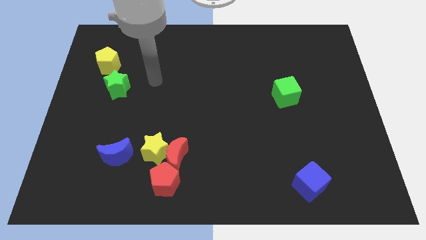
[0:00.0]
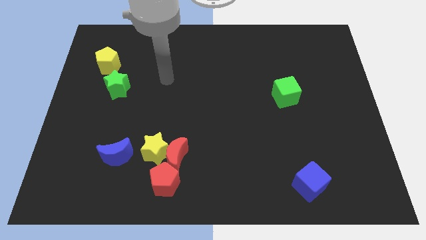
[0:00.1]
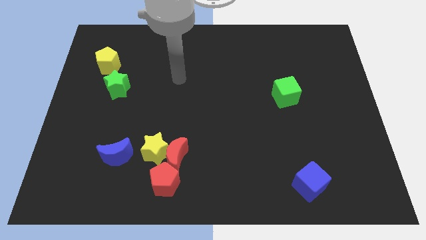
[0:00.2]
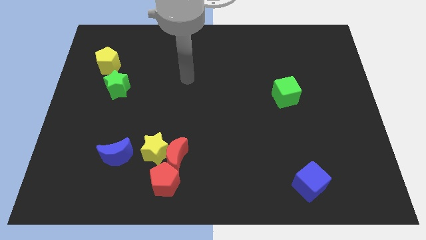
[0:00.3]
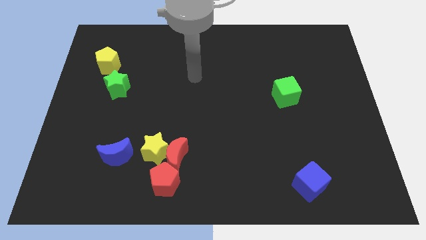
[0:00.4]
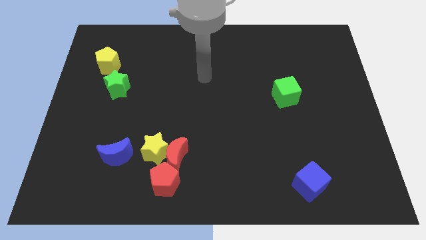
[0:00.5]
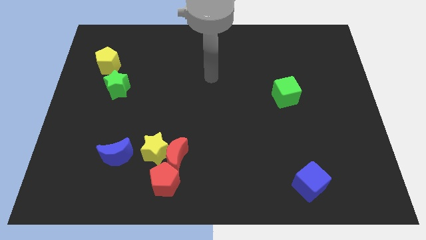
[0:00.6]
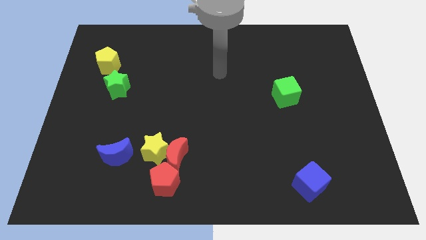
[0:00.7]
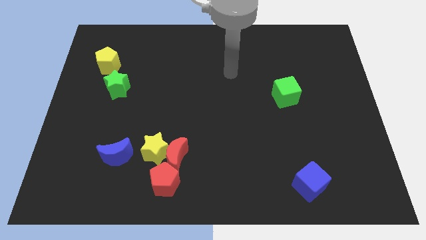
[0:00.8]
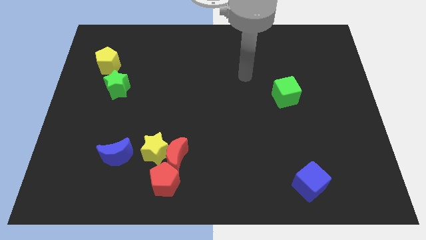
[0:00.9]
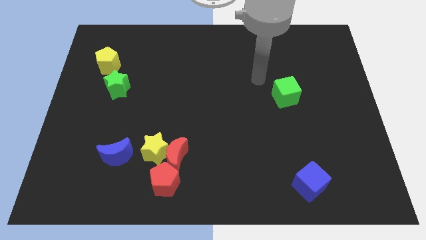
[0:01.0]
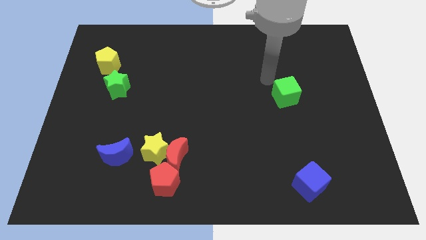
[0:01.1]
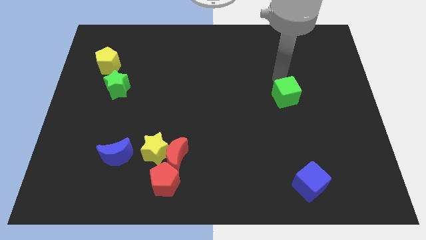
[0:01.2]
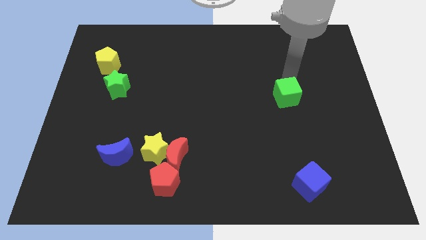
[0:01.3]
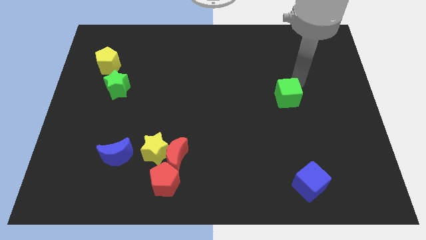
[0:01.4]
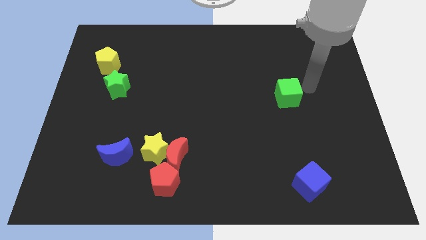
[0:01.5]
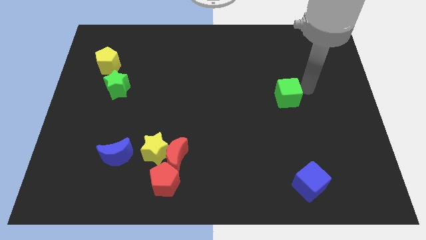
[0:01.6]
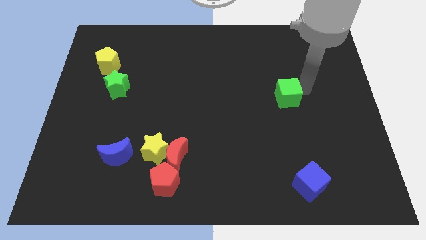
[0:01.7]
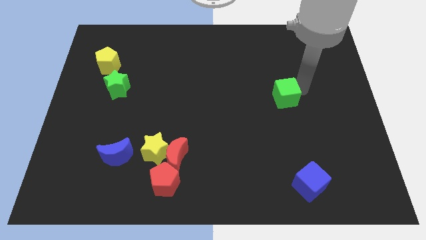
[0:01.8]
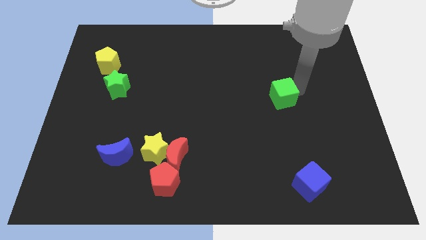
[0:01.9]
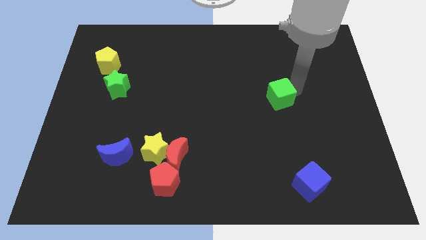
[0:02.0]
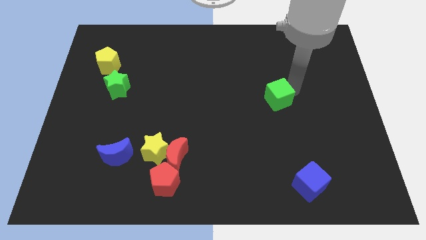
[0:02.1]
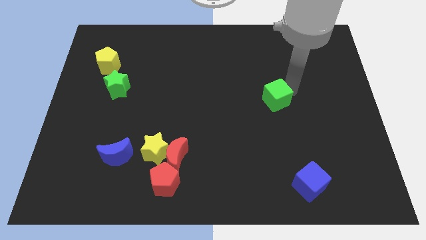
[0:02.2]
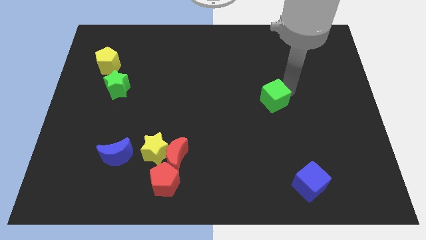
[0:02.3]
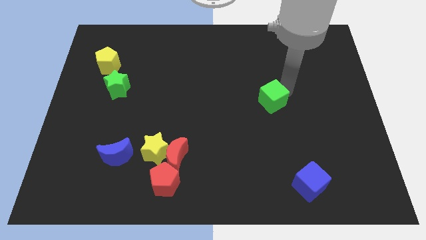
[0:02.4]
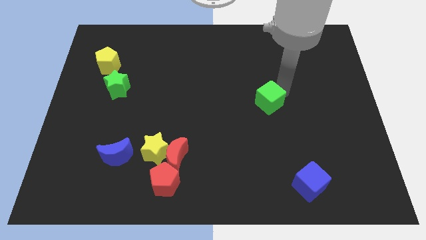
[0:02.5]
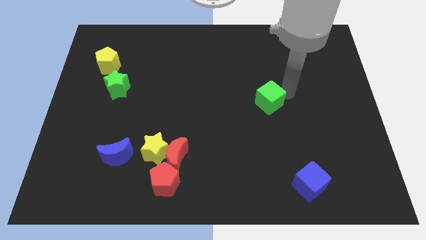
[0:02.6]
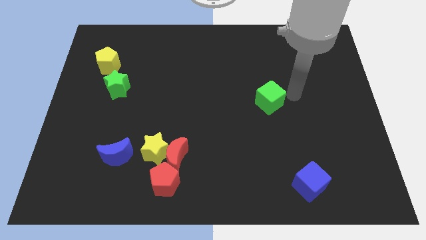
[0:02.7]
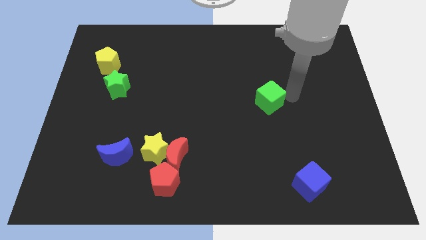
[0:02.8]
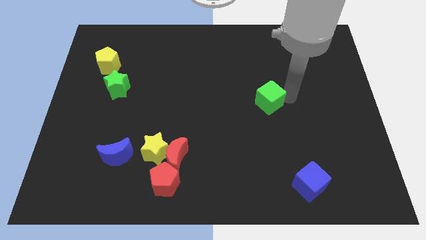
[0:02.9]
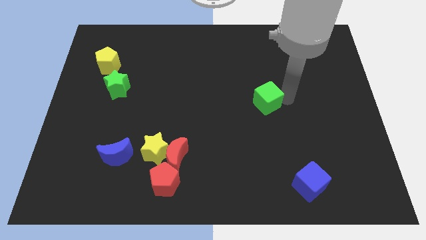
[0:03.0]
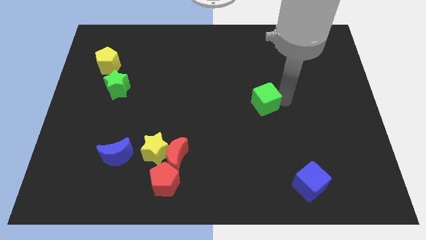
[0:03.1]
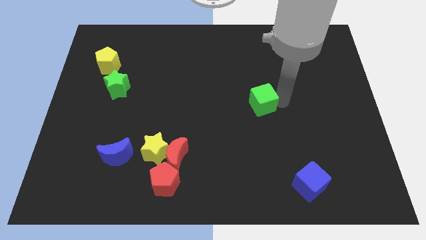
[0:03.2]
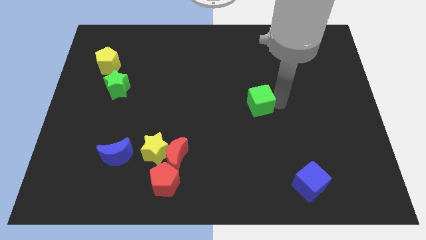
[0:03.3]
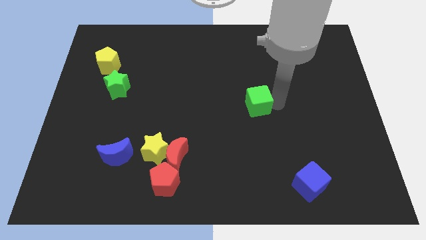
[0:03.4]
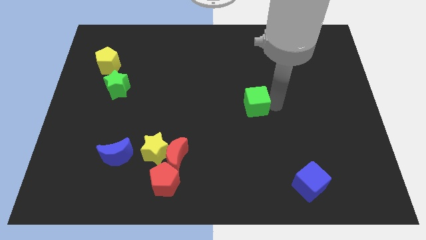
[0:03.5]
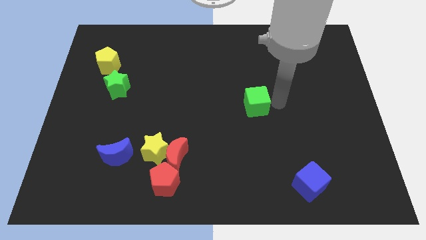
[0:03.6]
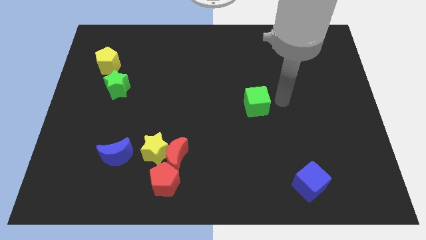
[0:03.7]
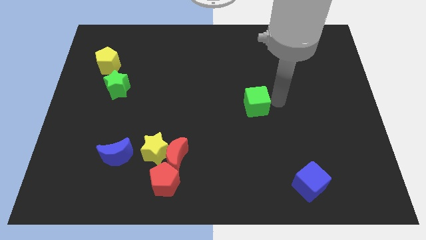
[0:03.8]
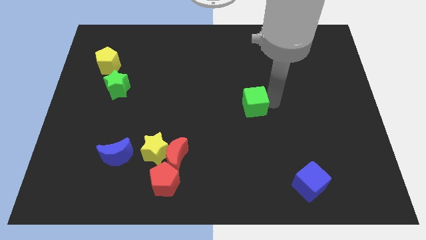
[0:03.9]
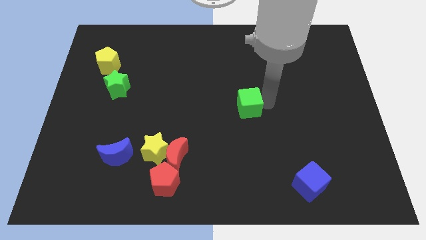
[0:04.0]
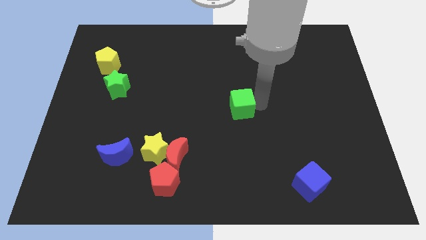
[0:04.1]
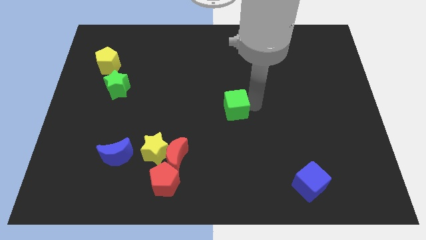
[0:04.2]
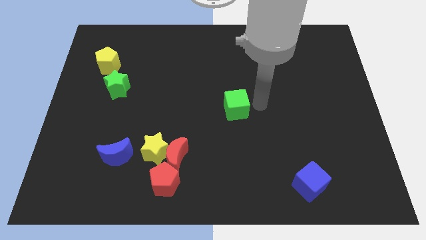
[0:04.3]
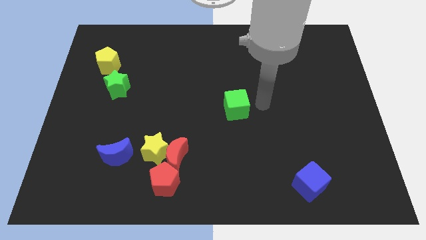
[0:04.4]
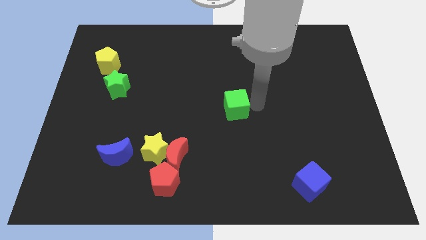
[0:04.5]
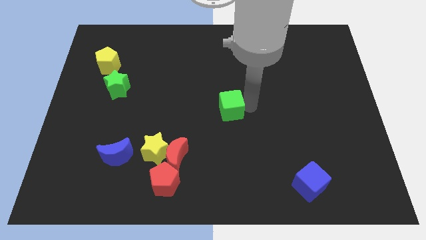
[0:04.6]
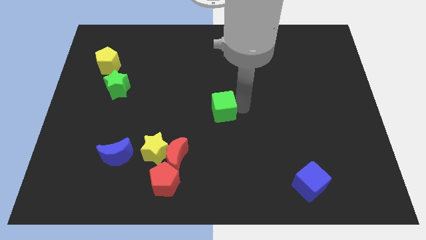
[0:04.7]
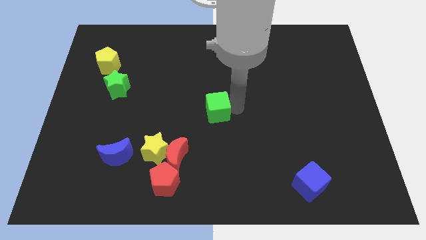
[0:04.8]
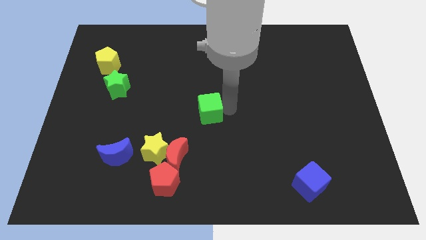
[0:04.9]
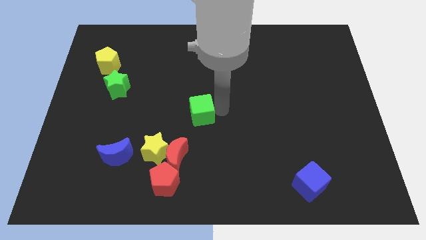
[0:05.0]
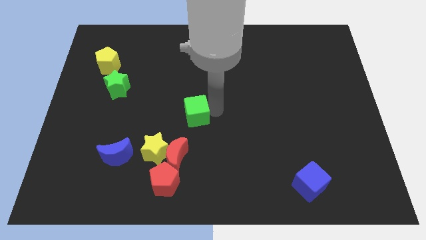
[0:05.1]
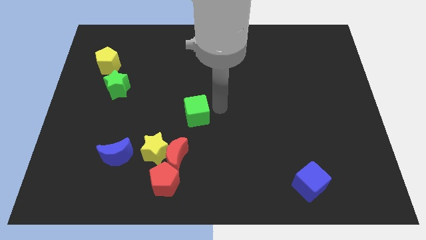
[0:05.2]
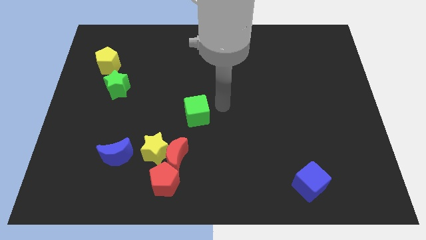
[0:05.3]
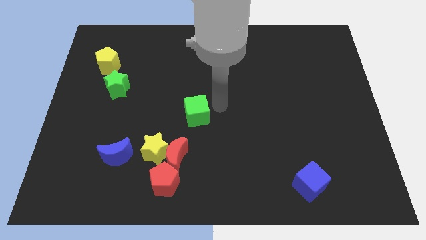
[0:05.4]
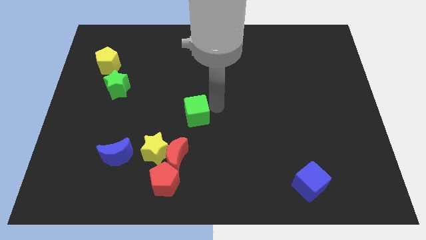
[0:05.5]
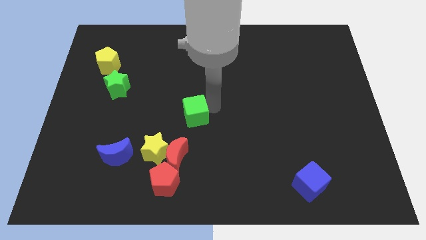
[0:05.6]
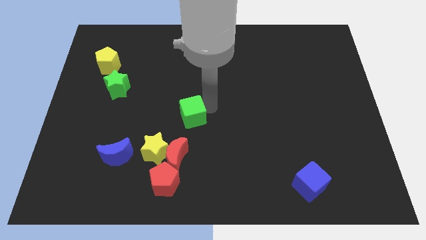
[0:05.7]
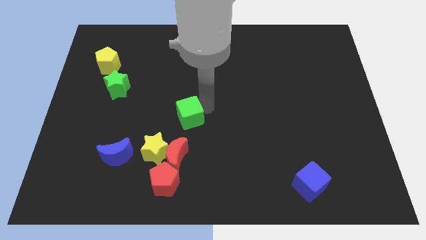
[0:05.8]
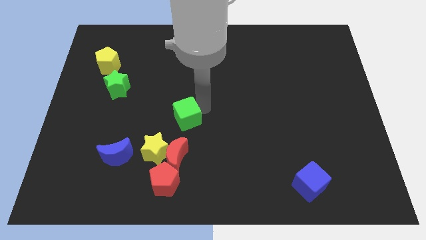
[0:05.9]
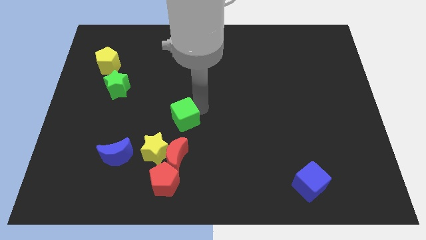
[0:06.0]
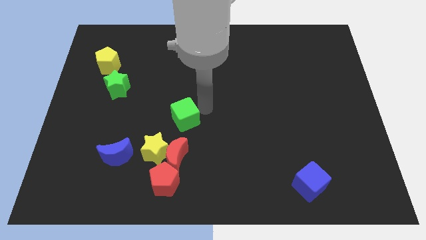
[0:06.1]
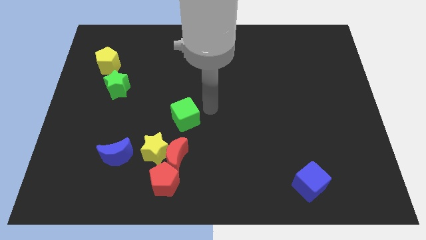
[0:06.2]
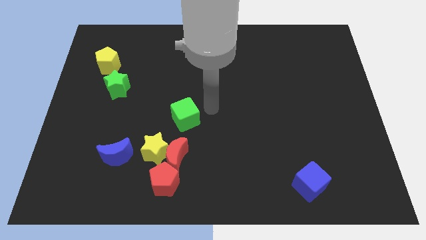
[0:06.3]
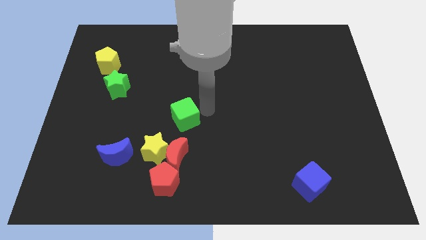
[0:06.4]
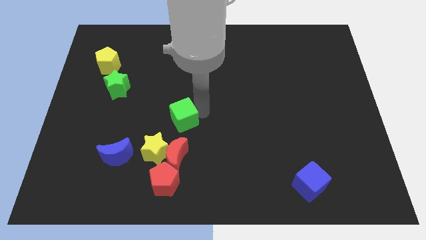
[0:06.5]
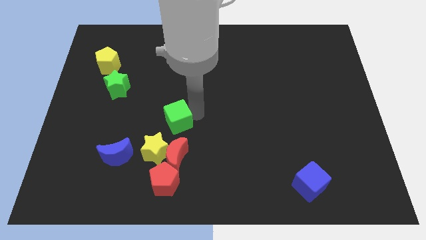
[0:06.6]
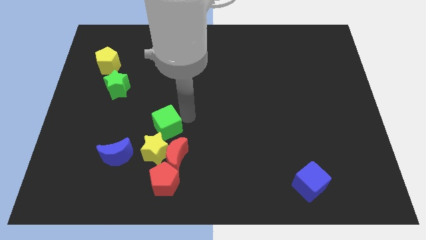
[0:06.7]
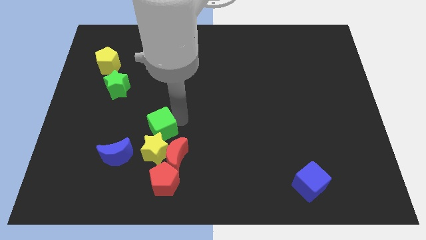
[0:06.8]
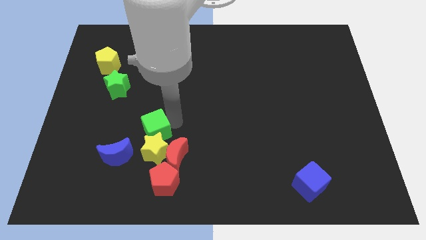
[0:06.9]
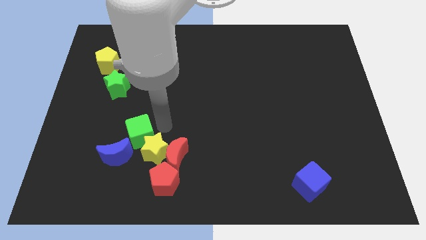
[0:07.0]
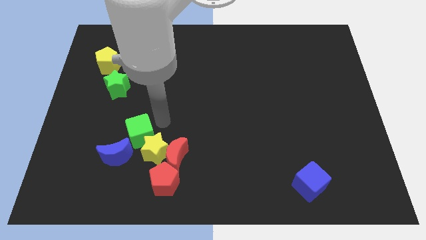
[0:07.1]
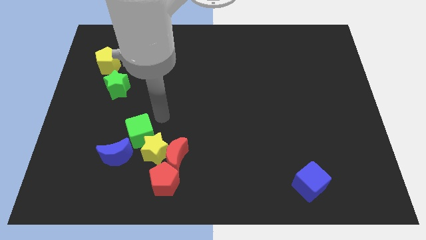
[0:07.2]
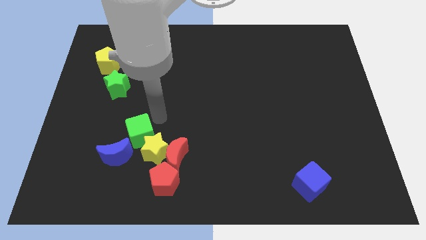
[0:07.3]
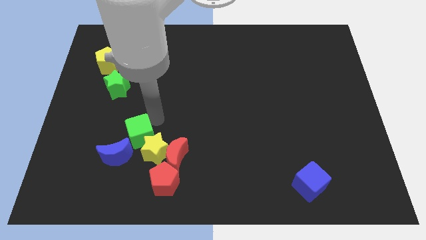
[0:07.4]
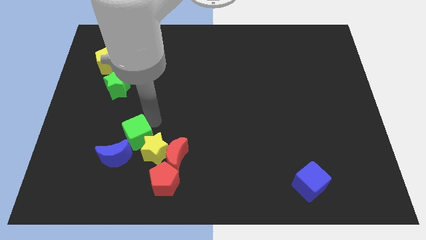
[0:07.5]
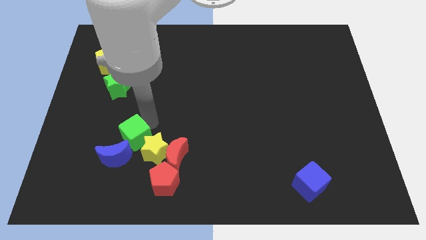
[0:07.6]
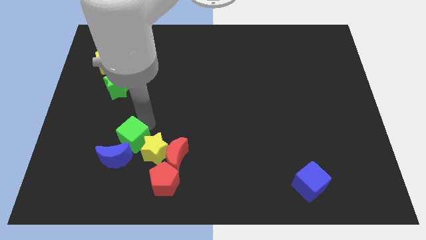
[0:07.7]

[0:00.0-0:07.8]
move the green cube close to the blue moon
